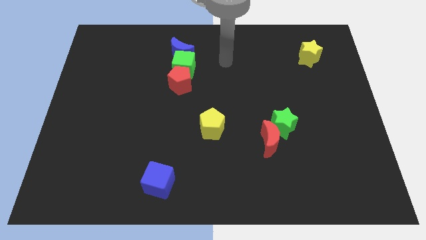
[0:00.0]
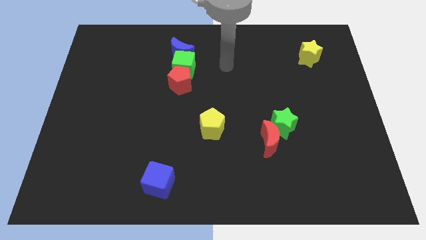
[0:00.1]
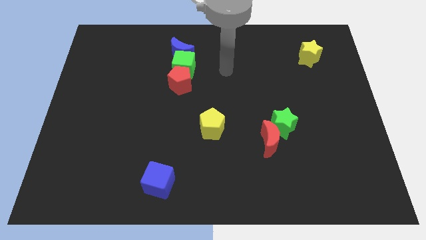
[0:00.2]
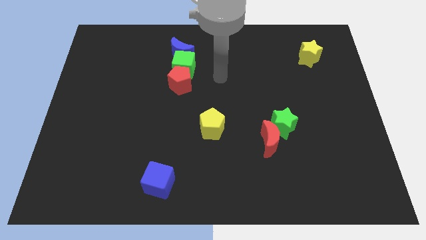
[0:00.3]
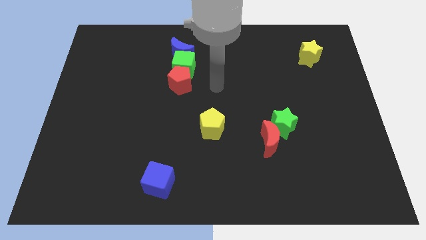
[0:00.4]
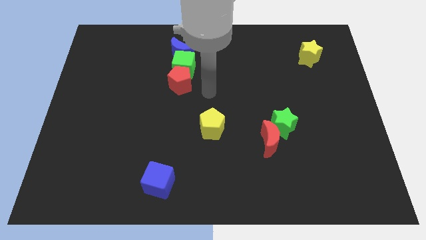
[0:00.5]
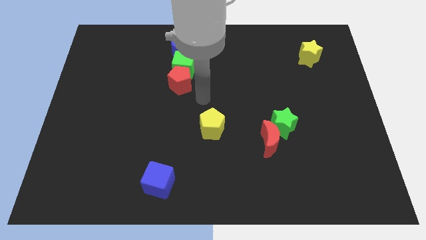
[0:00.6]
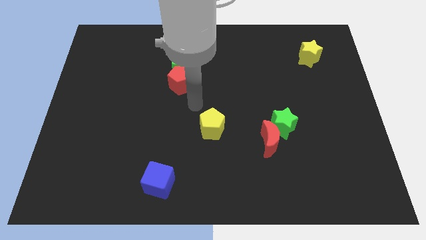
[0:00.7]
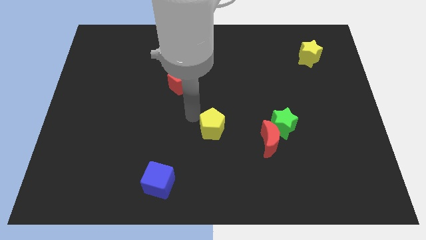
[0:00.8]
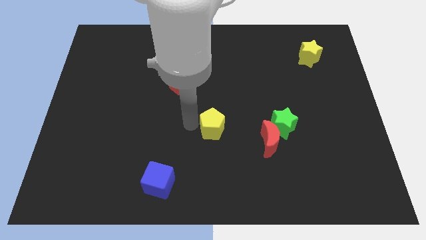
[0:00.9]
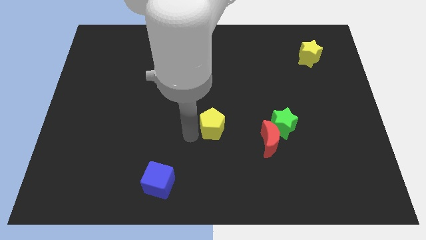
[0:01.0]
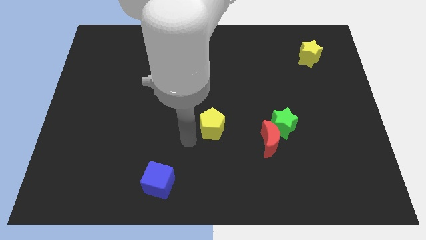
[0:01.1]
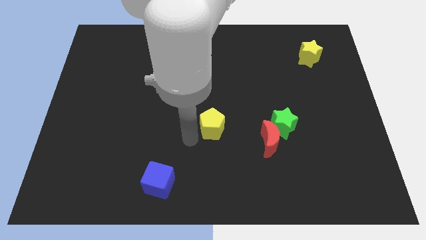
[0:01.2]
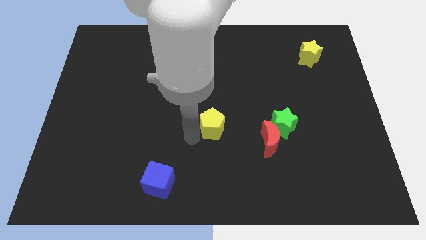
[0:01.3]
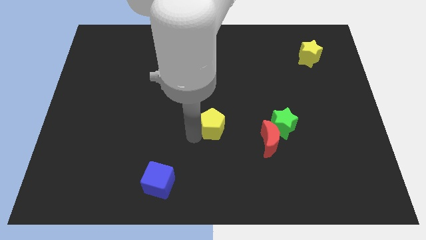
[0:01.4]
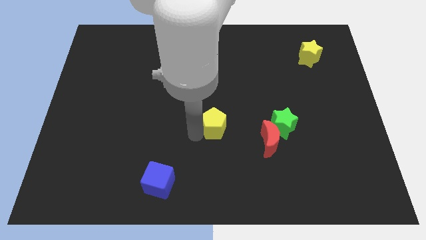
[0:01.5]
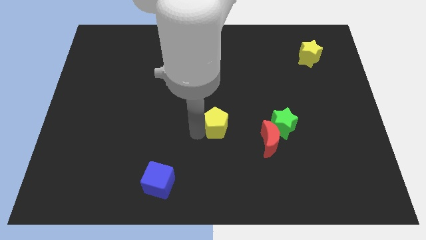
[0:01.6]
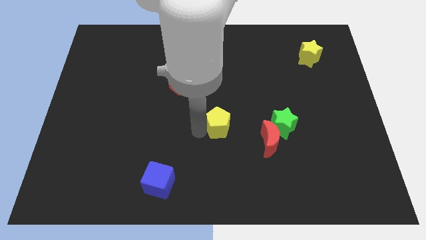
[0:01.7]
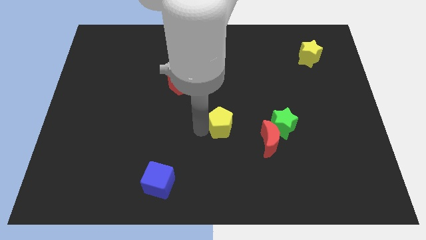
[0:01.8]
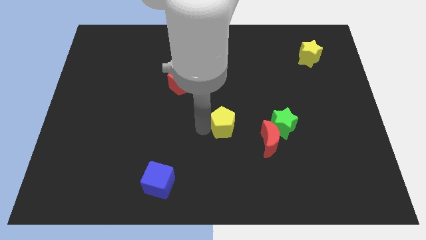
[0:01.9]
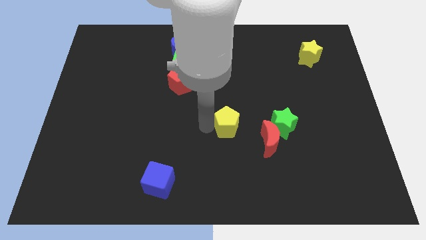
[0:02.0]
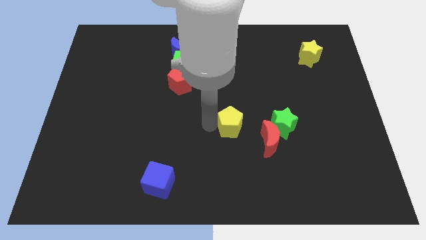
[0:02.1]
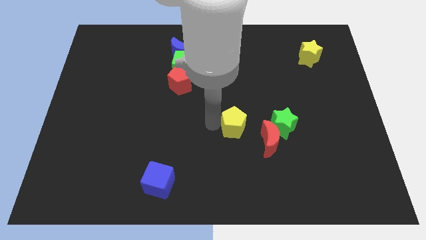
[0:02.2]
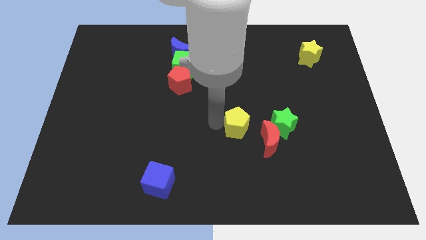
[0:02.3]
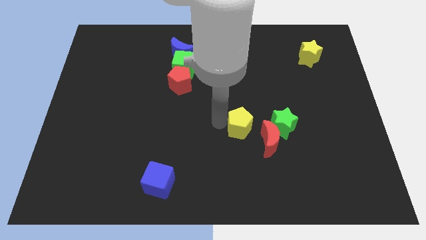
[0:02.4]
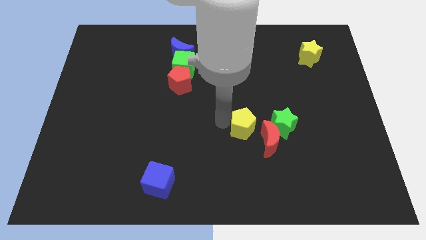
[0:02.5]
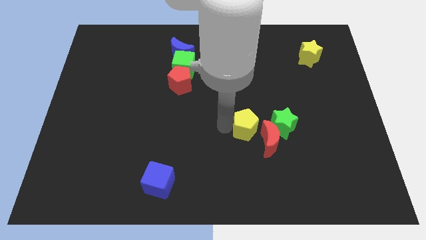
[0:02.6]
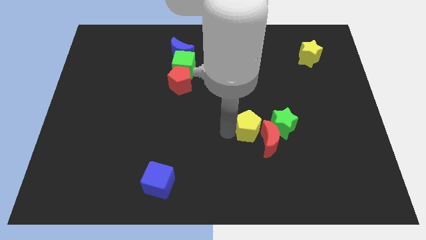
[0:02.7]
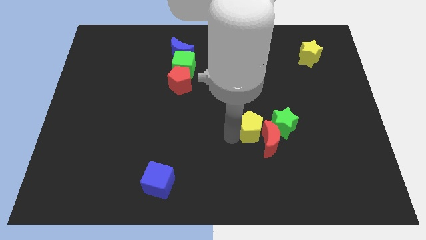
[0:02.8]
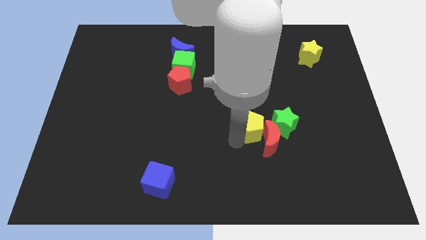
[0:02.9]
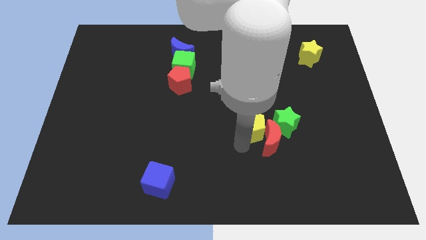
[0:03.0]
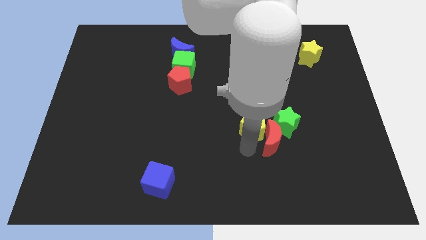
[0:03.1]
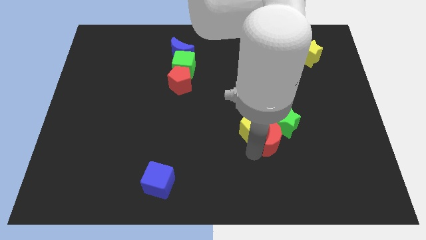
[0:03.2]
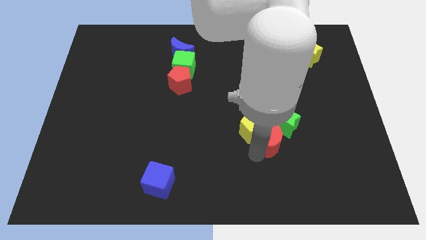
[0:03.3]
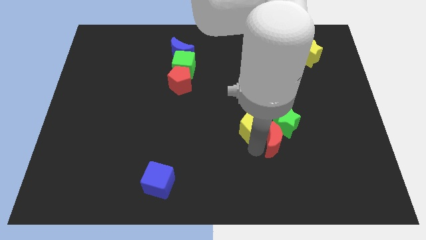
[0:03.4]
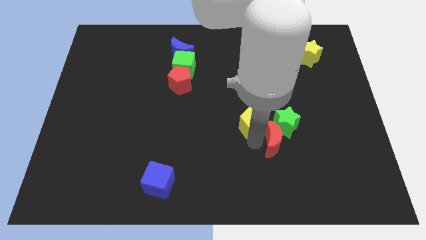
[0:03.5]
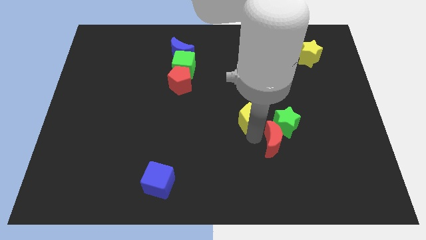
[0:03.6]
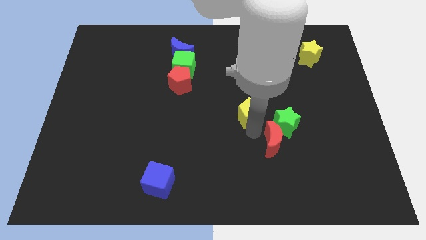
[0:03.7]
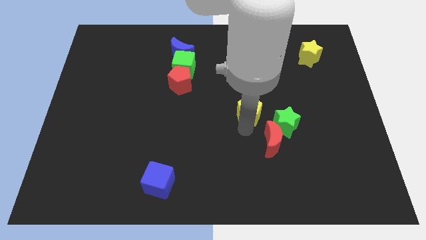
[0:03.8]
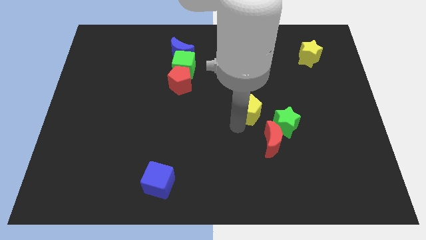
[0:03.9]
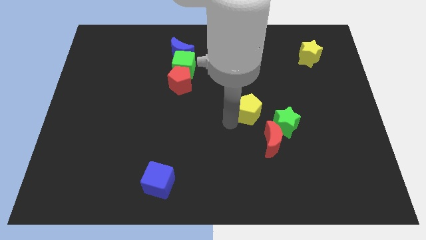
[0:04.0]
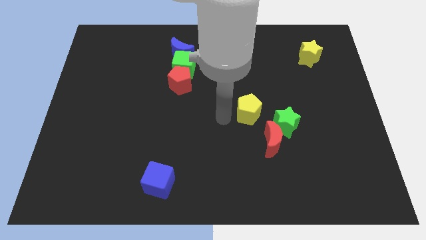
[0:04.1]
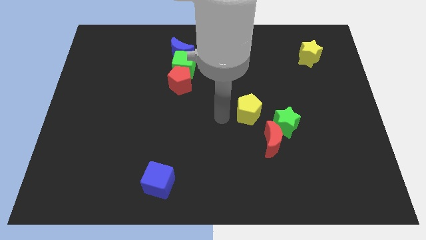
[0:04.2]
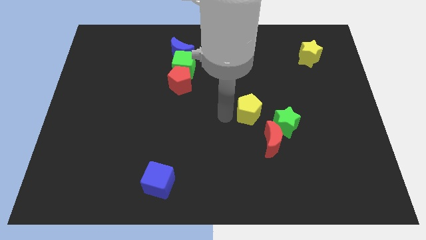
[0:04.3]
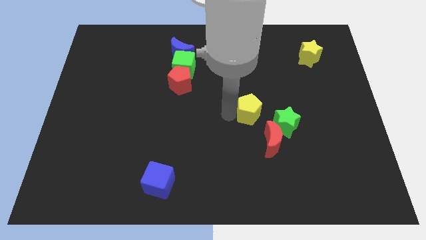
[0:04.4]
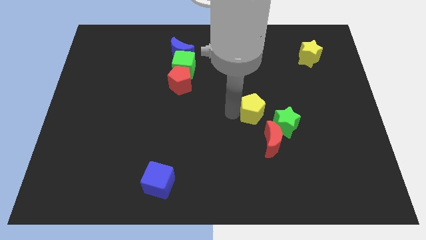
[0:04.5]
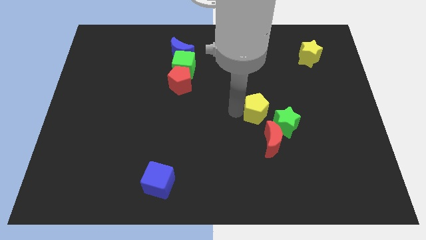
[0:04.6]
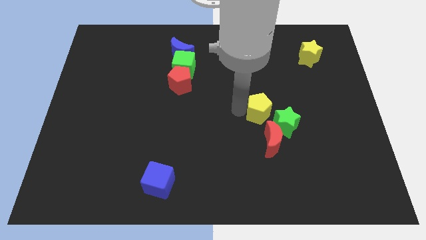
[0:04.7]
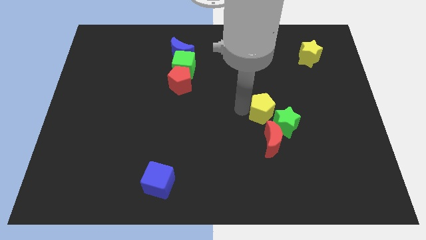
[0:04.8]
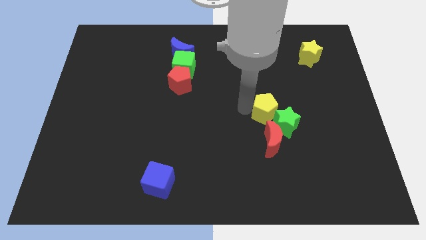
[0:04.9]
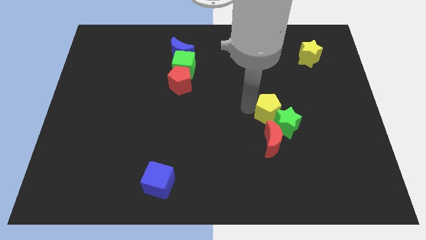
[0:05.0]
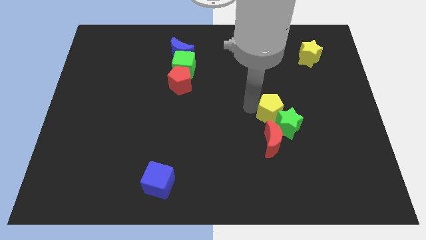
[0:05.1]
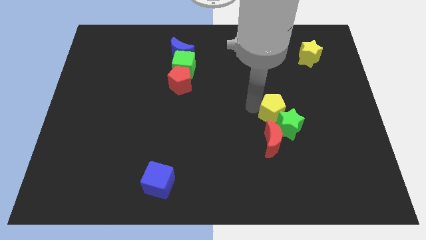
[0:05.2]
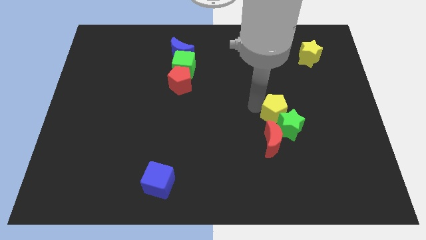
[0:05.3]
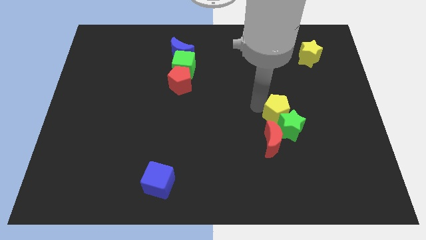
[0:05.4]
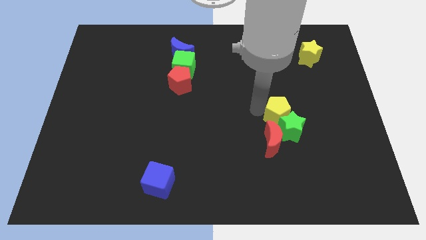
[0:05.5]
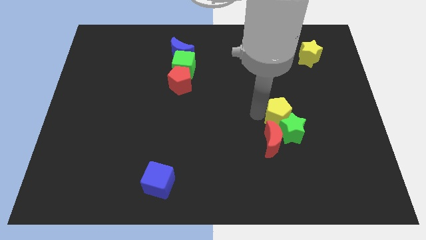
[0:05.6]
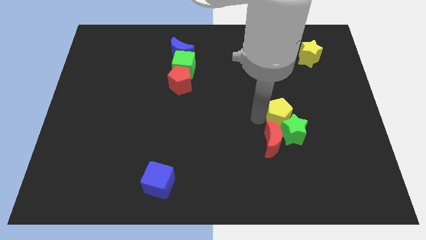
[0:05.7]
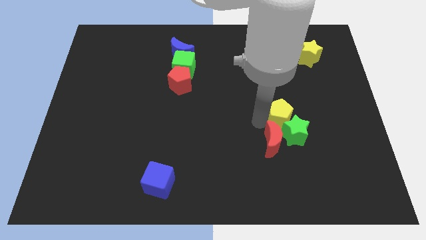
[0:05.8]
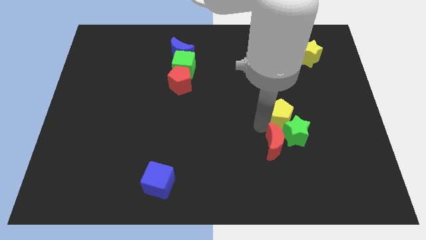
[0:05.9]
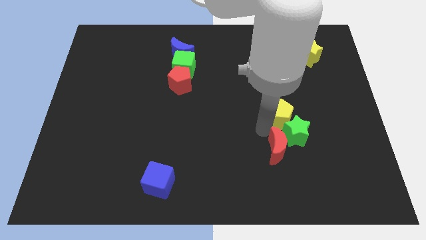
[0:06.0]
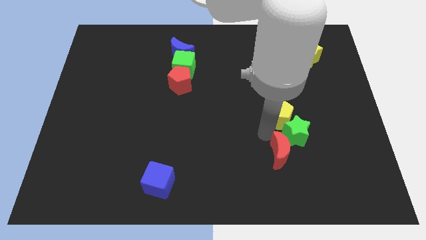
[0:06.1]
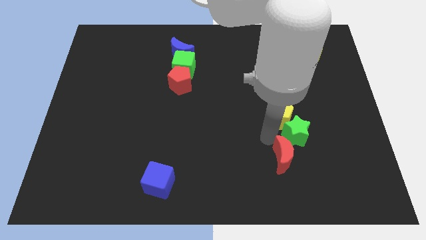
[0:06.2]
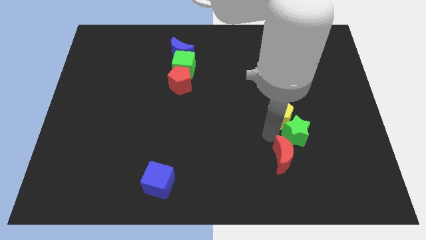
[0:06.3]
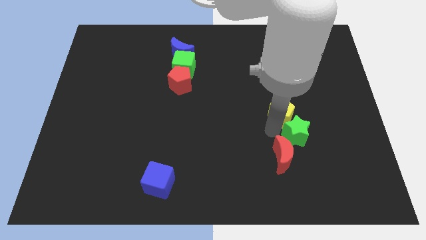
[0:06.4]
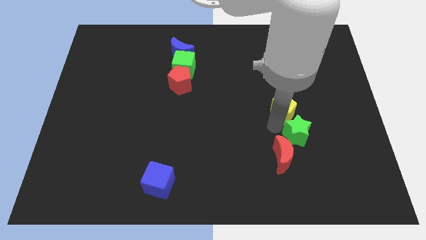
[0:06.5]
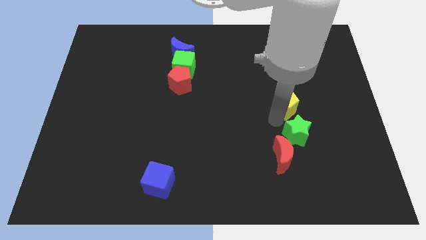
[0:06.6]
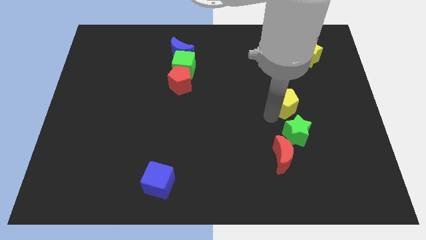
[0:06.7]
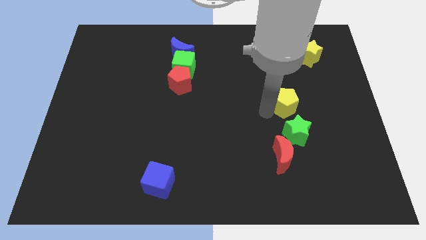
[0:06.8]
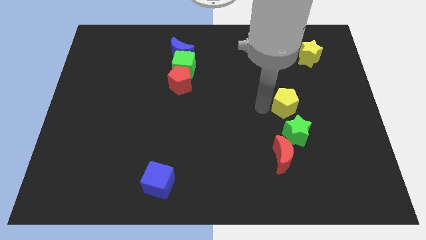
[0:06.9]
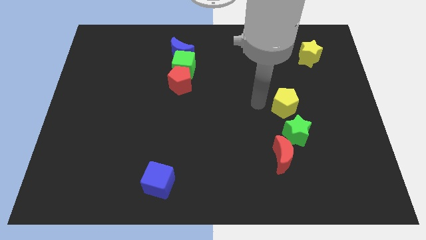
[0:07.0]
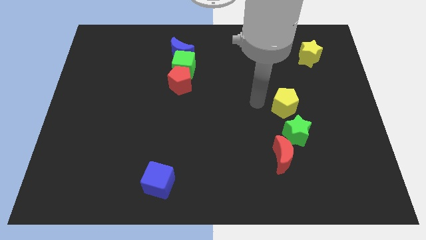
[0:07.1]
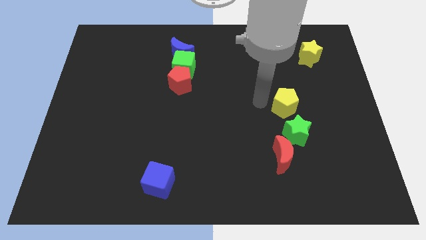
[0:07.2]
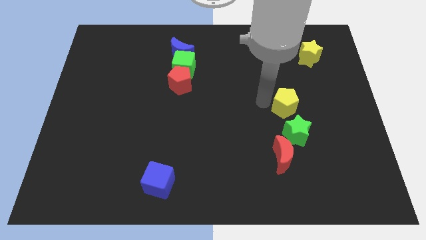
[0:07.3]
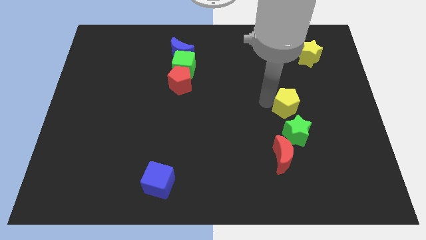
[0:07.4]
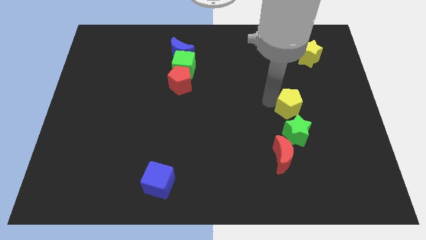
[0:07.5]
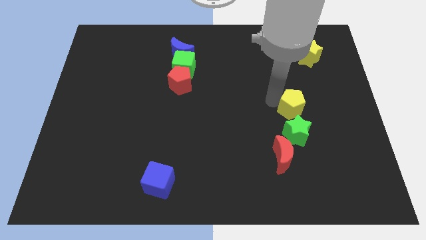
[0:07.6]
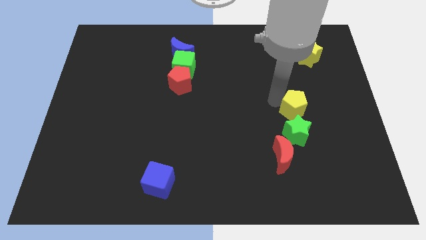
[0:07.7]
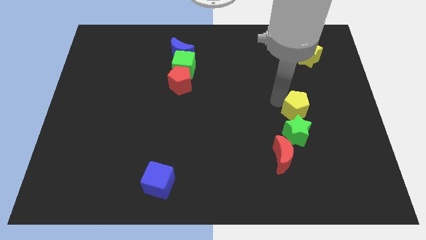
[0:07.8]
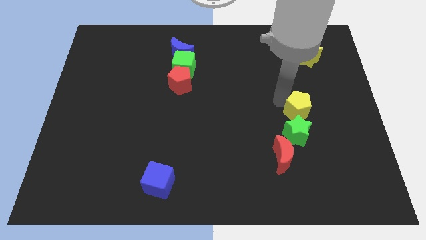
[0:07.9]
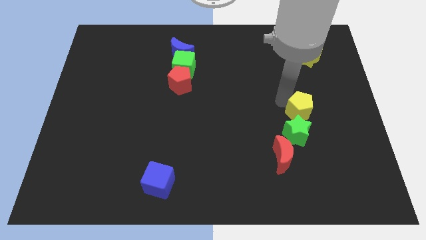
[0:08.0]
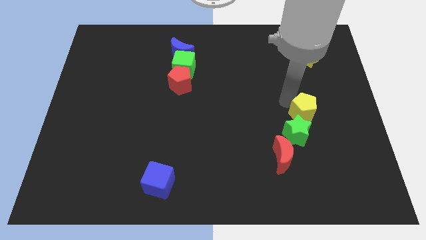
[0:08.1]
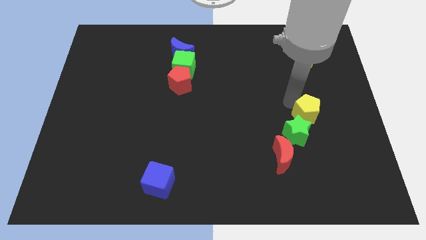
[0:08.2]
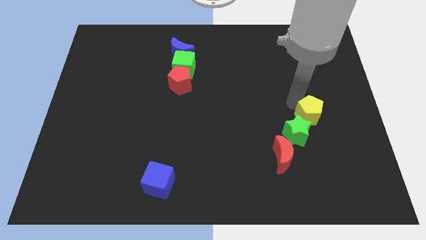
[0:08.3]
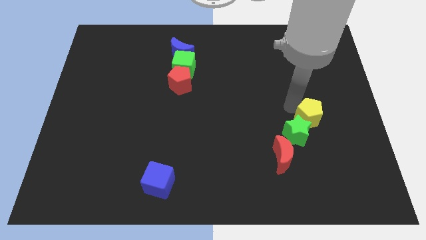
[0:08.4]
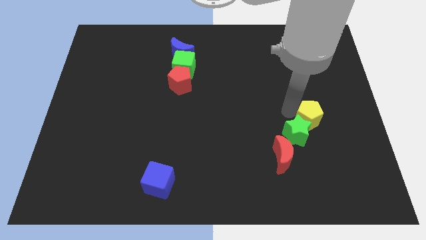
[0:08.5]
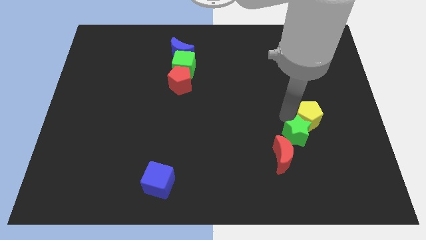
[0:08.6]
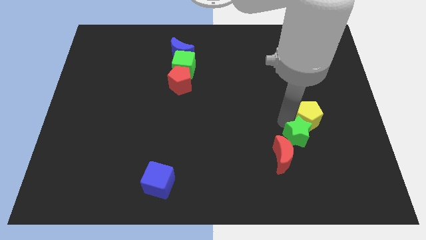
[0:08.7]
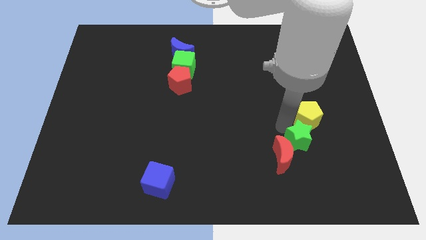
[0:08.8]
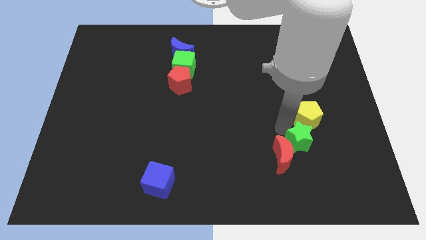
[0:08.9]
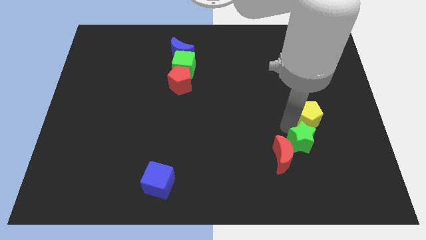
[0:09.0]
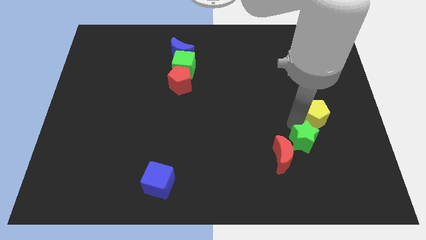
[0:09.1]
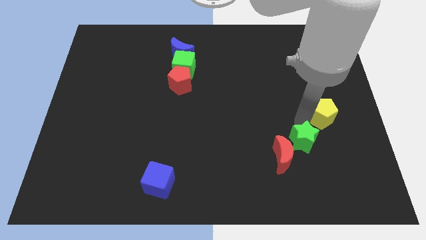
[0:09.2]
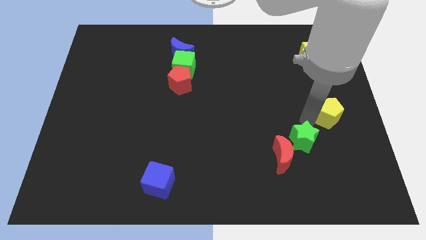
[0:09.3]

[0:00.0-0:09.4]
push the yellow pentagon to the right side
